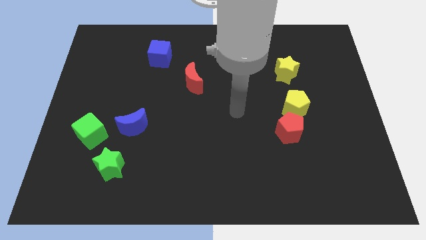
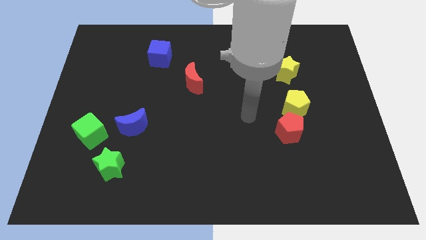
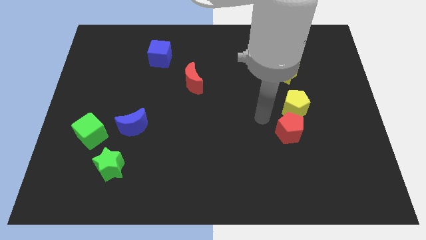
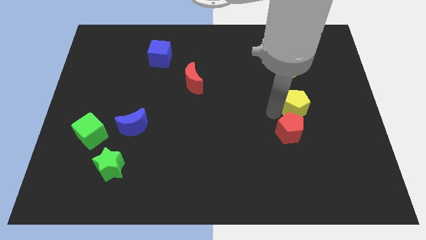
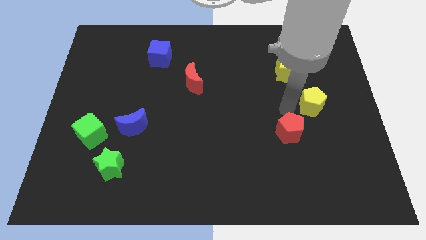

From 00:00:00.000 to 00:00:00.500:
pull the red pentagon apart from the yellow pentagon

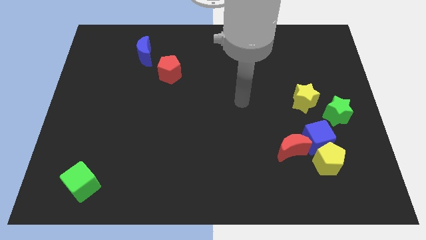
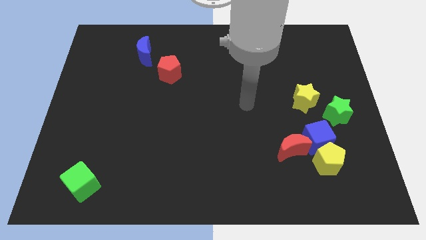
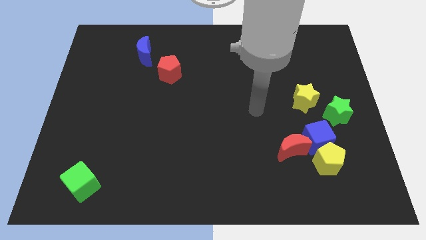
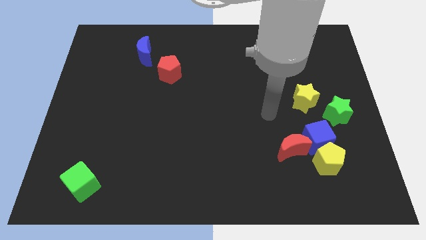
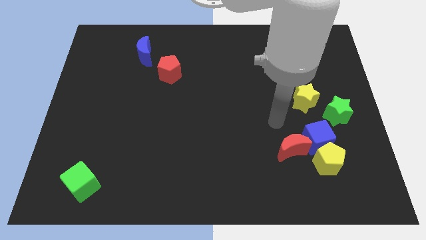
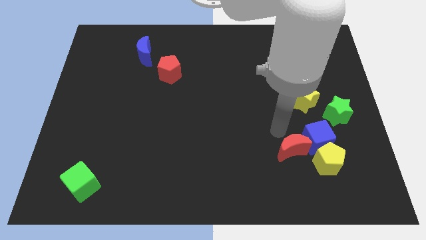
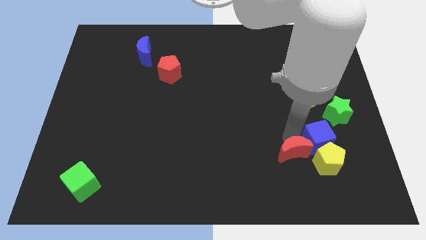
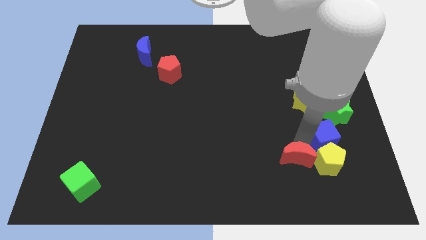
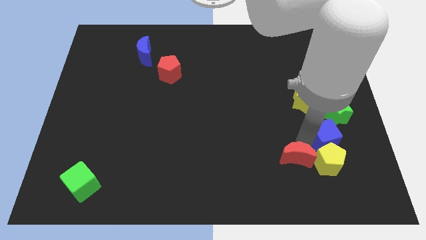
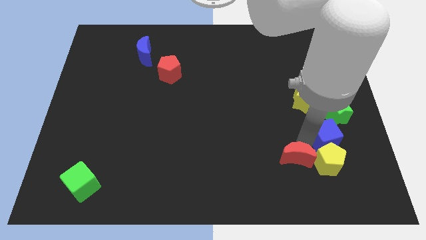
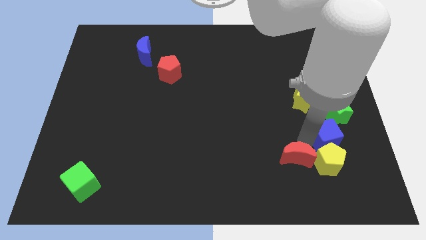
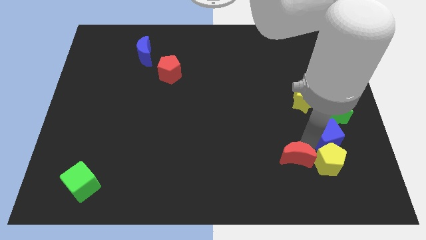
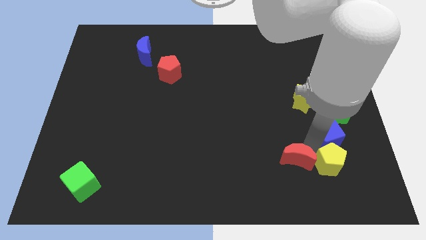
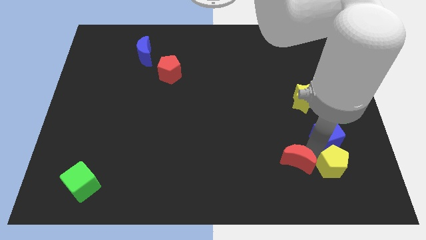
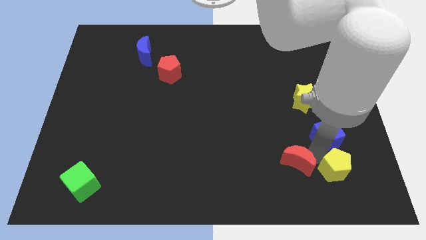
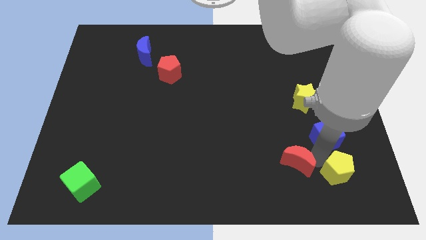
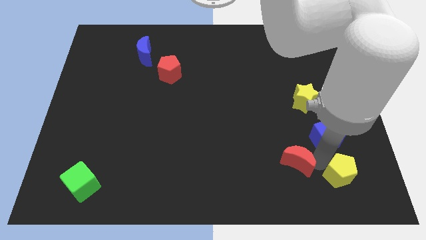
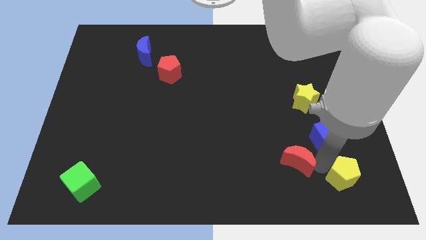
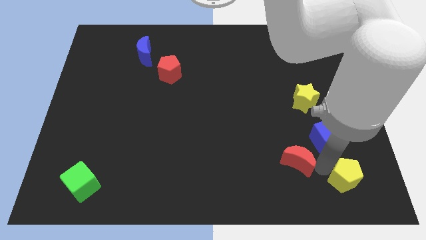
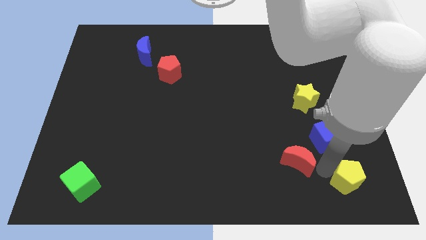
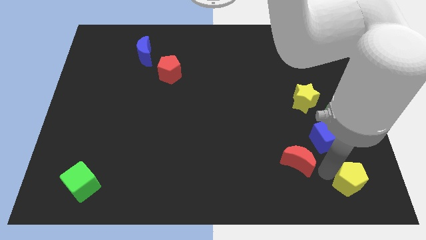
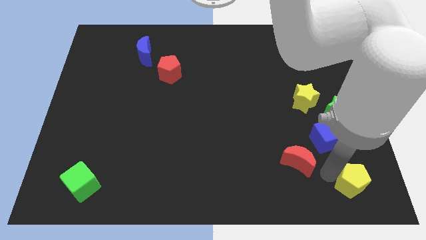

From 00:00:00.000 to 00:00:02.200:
move the yellow pentagon away from the blue cube and red moon

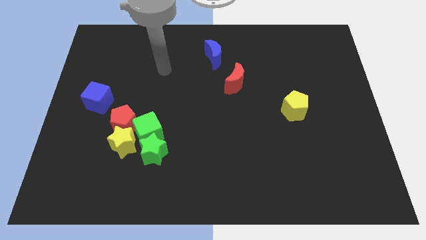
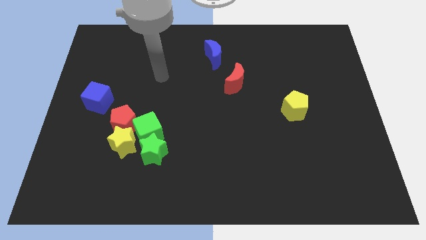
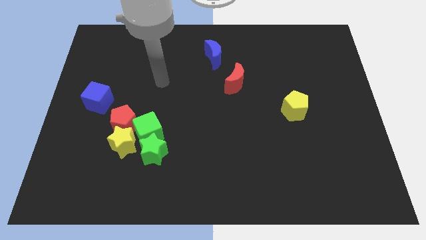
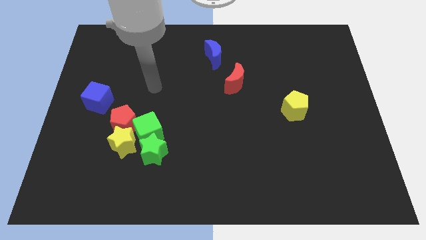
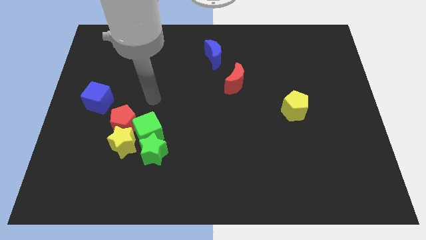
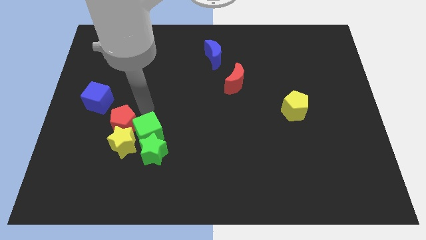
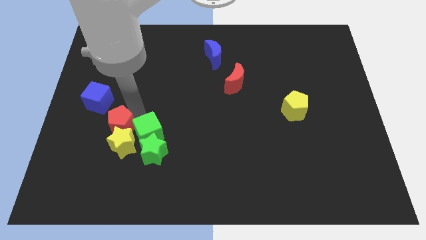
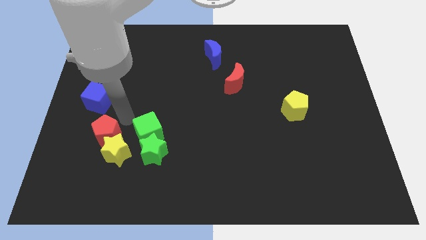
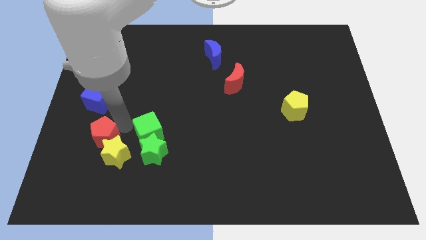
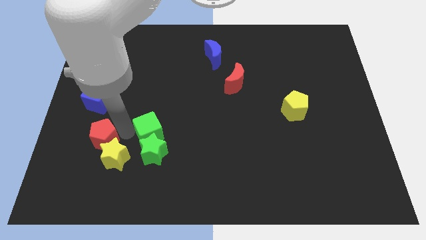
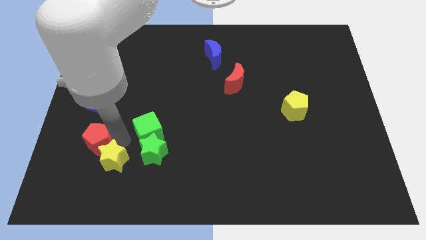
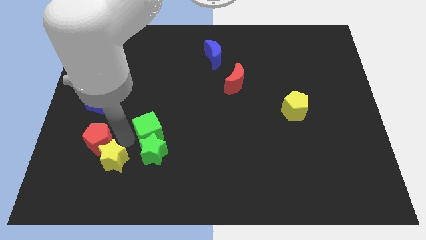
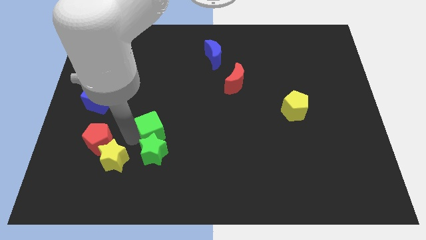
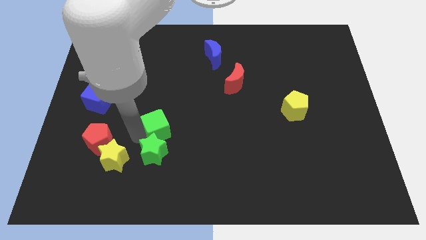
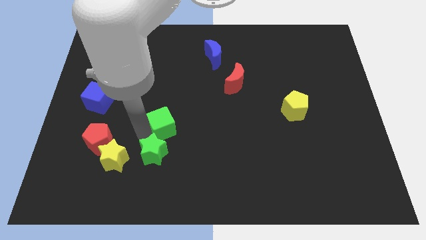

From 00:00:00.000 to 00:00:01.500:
separate the green cube from the green star, yellow star, and red pentagon

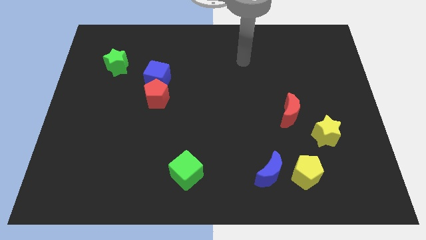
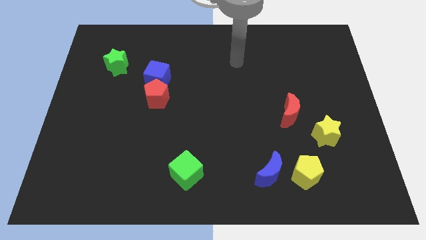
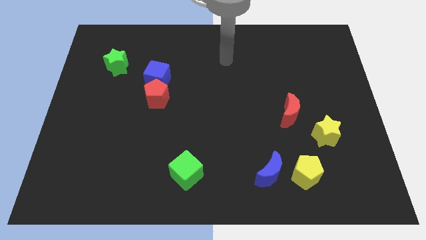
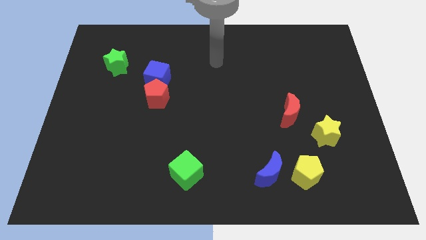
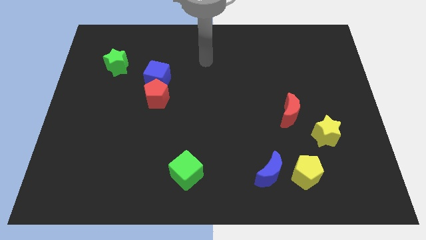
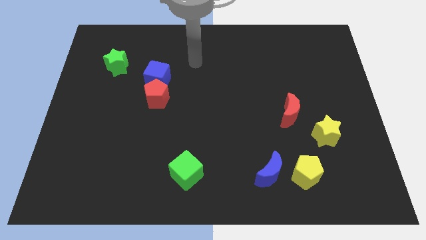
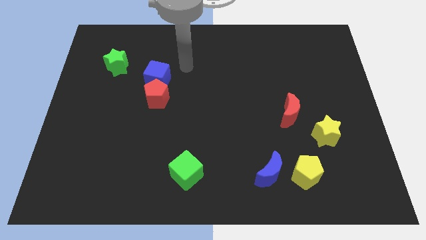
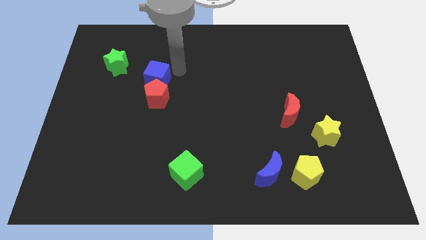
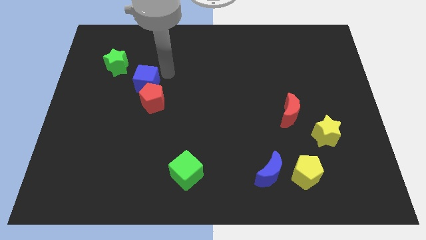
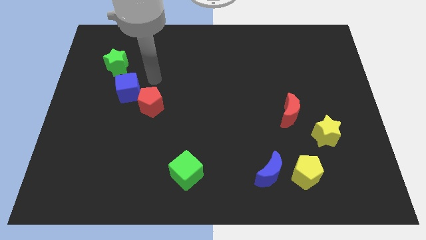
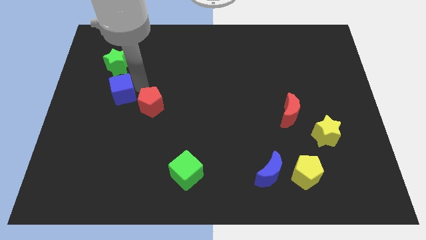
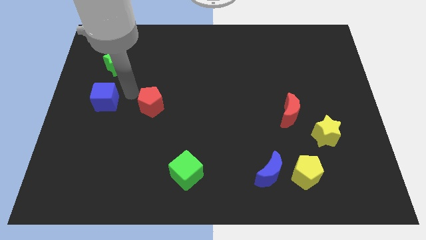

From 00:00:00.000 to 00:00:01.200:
move the red pentagon away from the blue cube

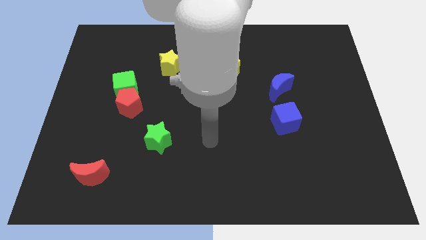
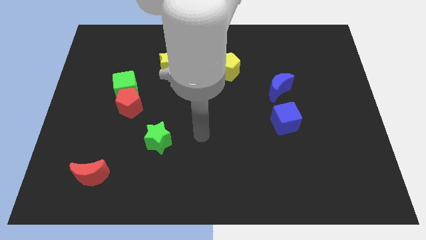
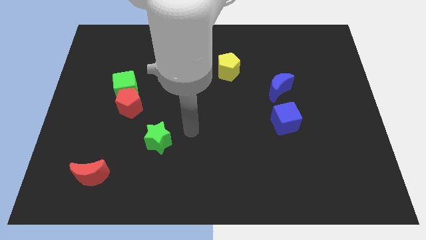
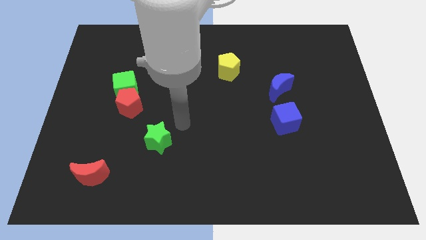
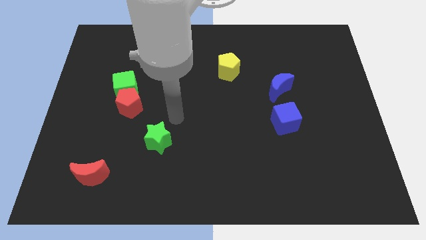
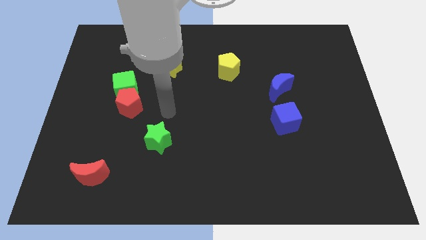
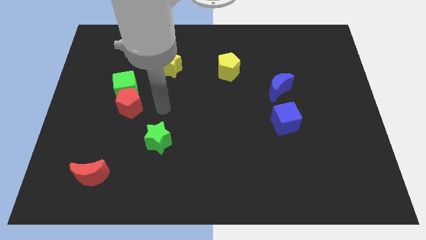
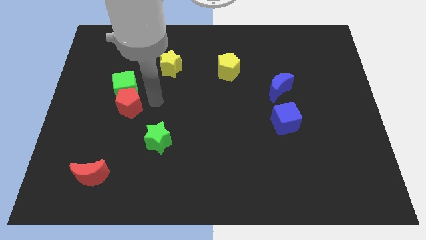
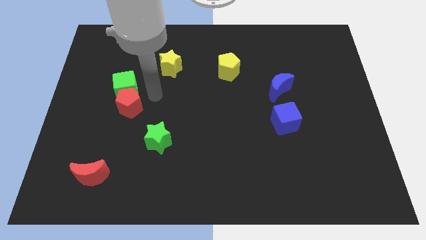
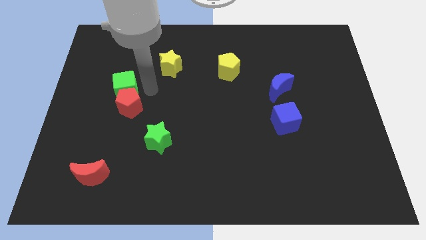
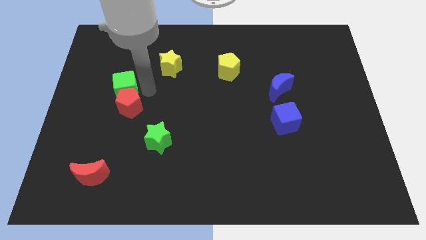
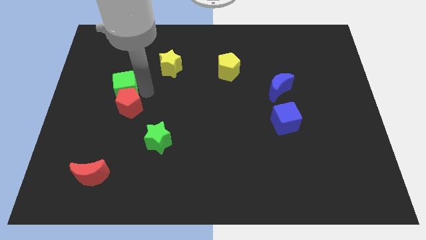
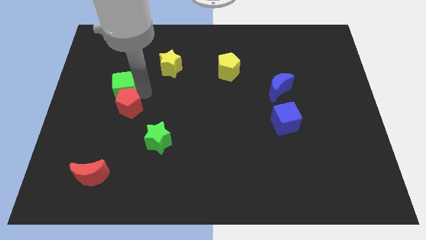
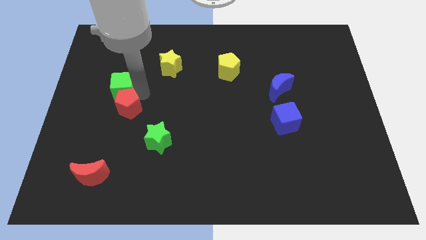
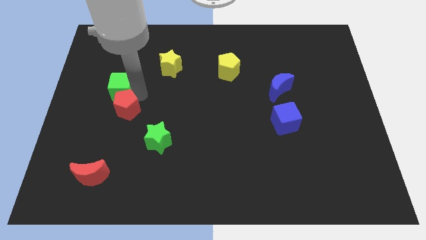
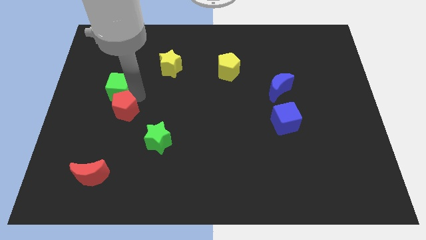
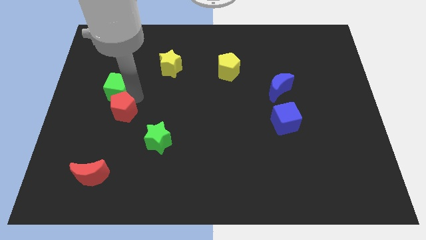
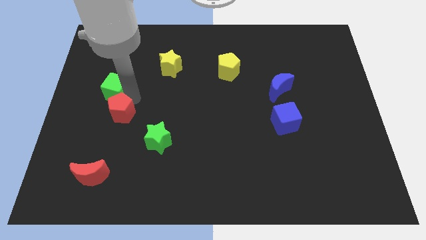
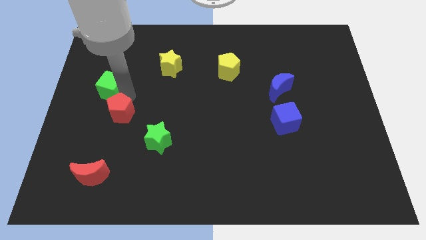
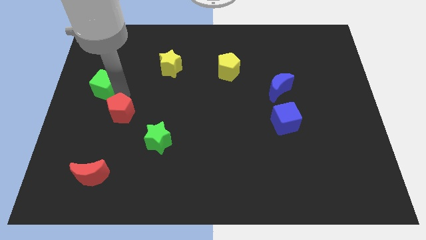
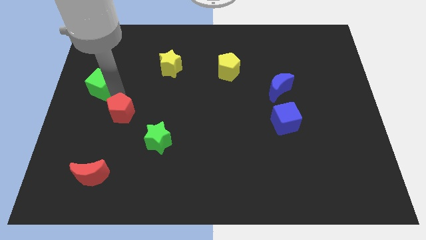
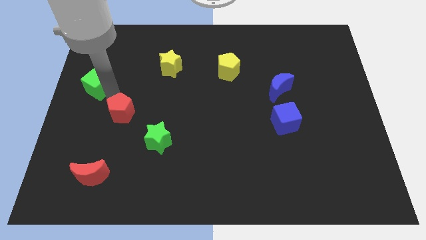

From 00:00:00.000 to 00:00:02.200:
move the red pentagon away from the green cube

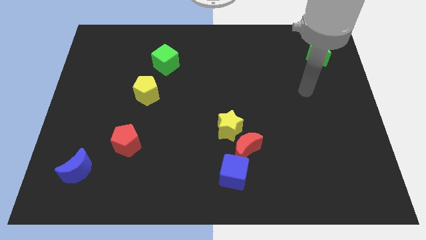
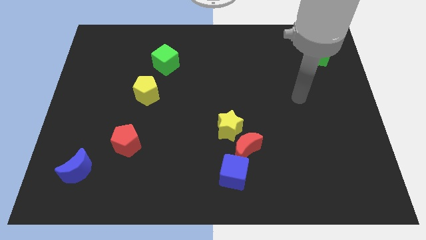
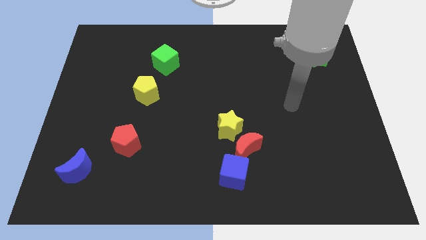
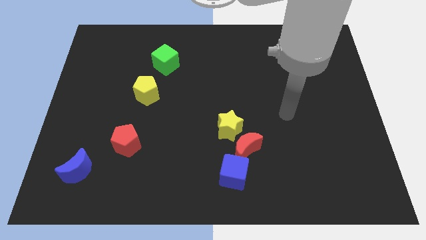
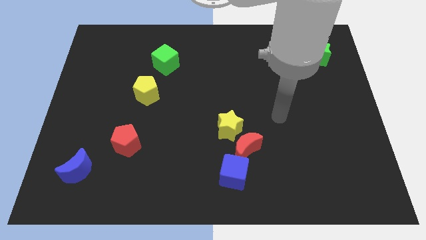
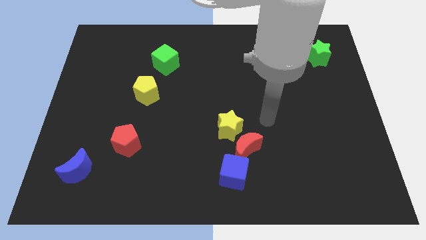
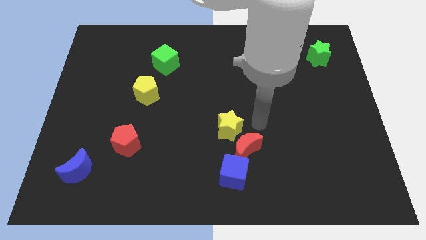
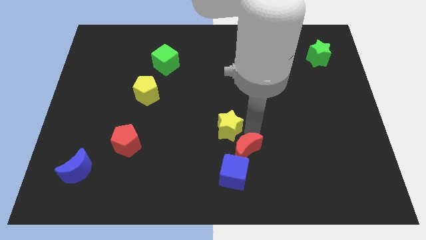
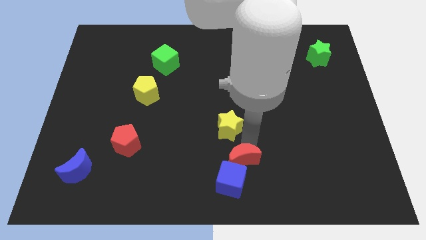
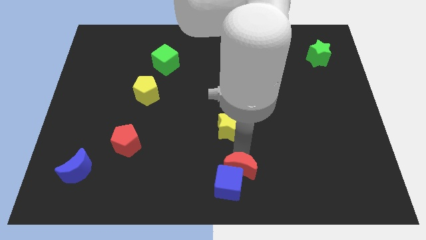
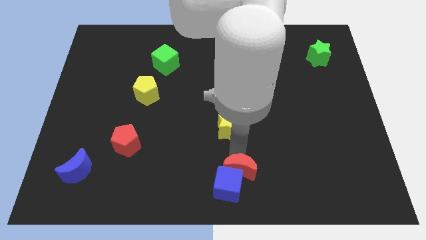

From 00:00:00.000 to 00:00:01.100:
move the yellow star away from the red moon

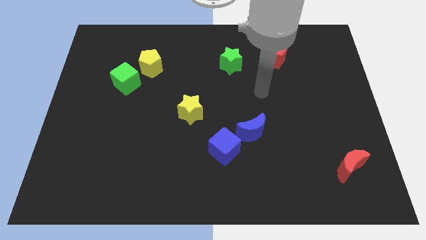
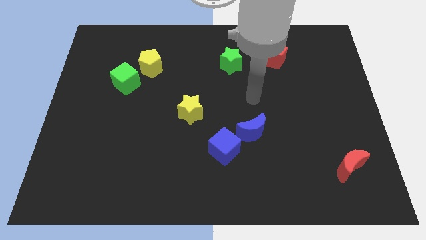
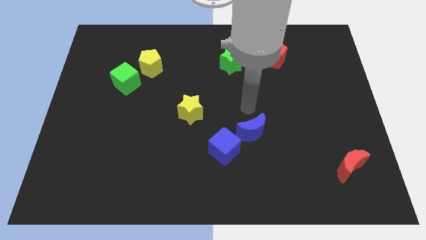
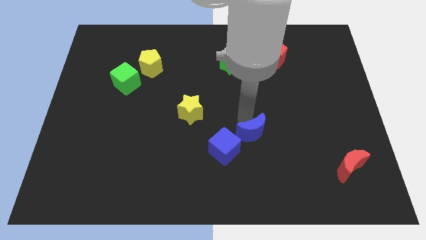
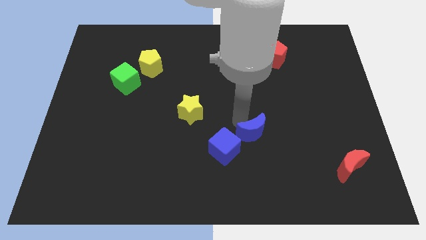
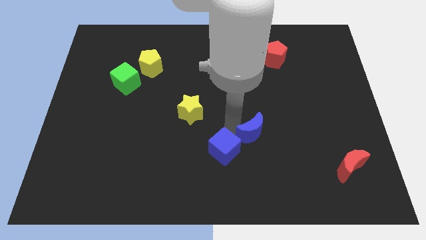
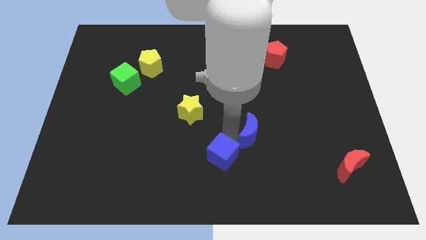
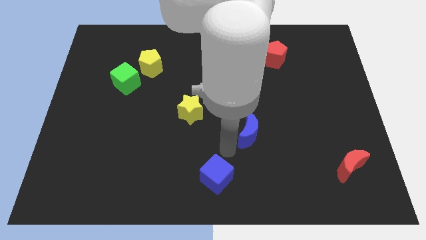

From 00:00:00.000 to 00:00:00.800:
pull the blue moon apart from the blue cube
